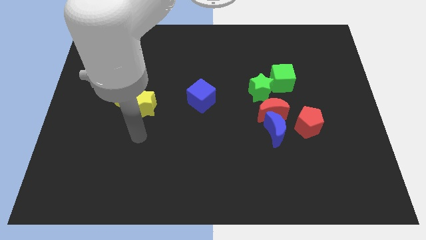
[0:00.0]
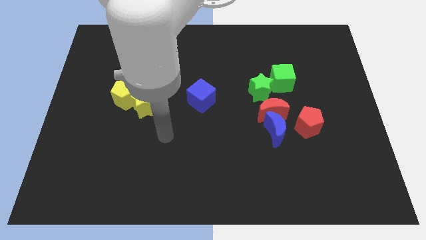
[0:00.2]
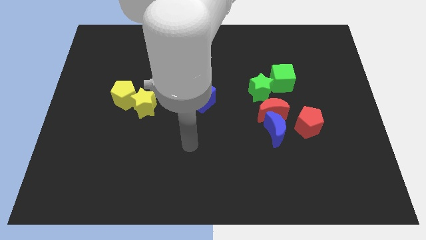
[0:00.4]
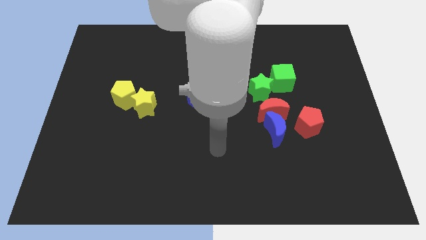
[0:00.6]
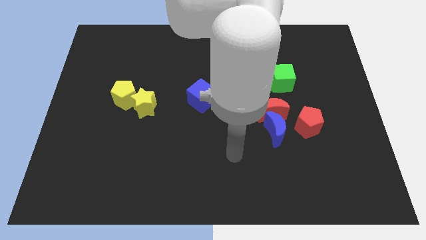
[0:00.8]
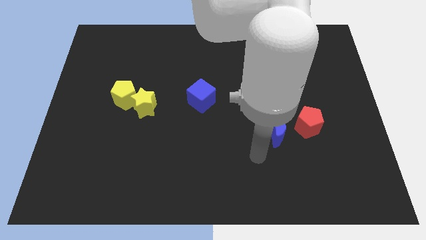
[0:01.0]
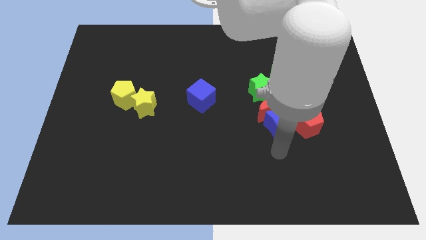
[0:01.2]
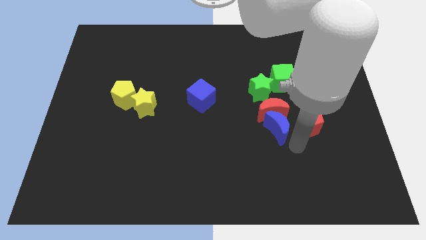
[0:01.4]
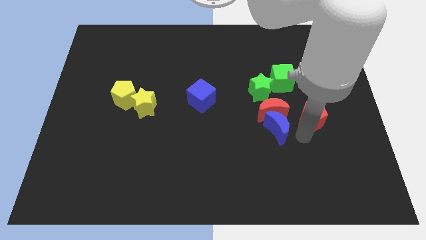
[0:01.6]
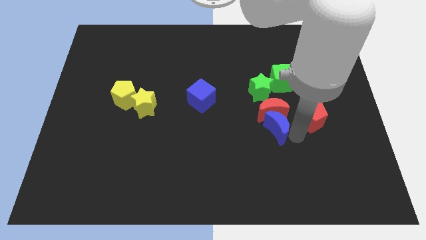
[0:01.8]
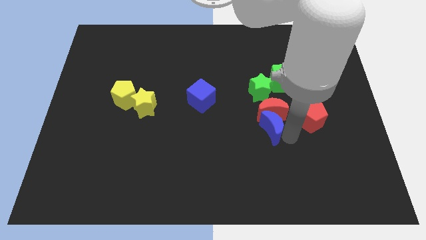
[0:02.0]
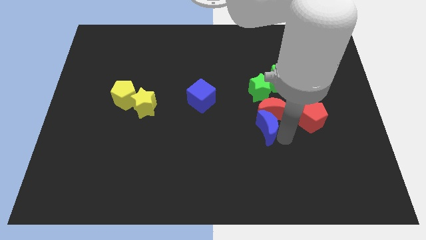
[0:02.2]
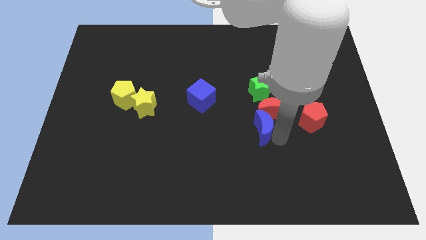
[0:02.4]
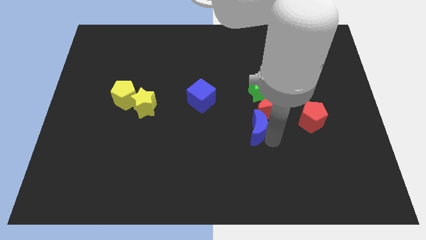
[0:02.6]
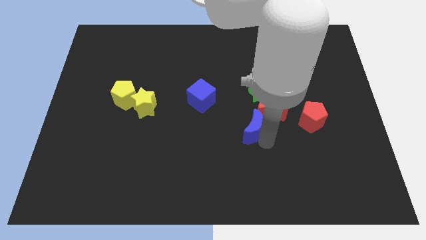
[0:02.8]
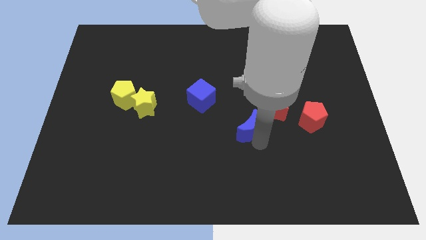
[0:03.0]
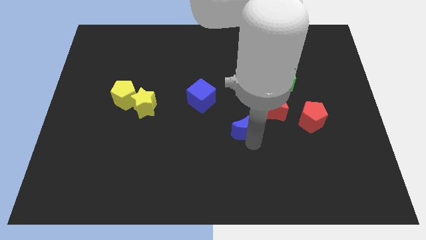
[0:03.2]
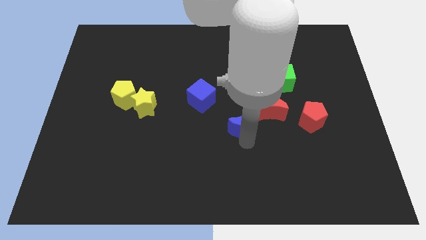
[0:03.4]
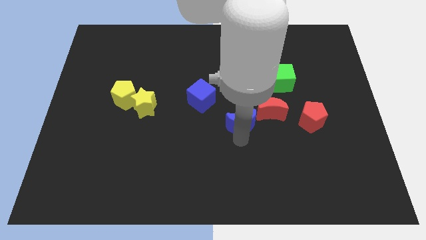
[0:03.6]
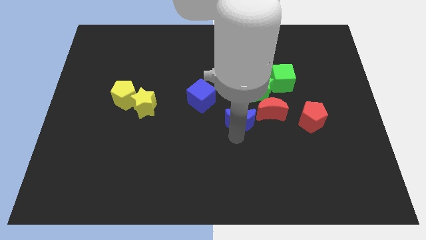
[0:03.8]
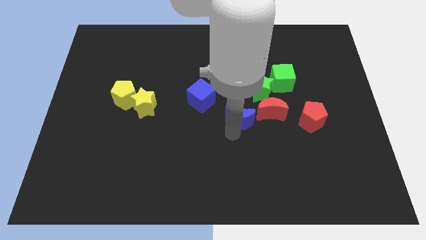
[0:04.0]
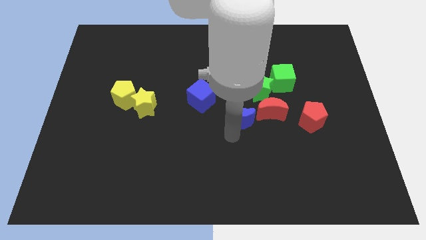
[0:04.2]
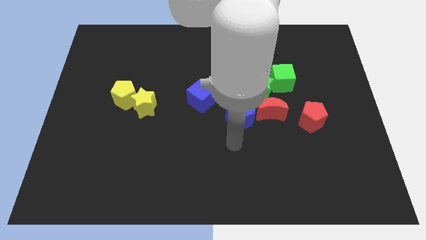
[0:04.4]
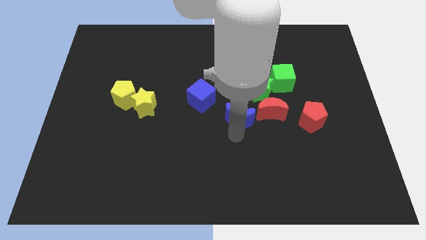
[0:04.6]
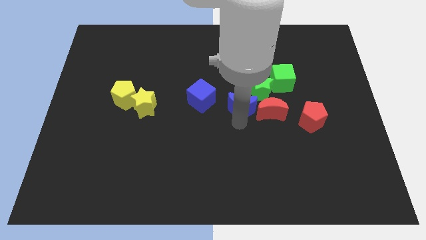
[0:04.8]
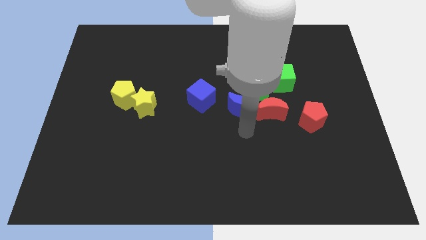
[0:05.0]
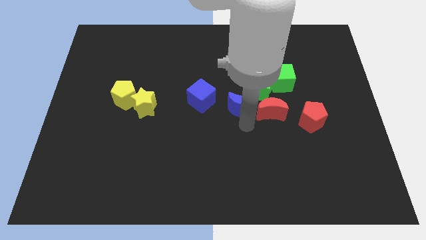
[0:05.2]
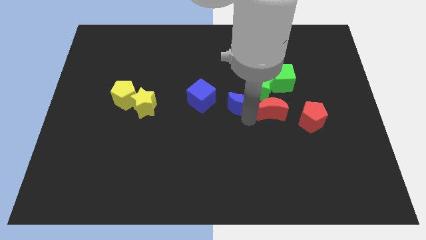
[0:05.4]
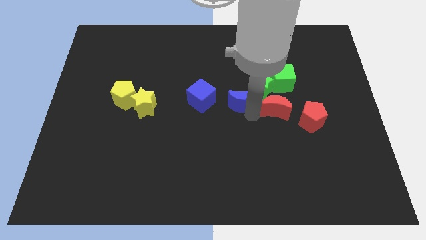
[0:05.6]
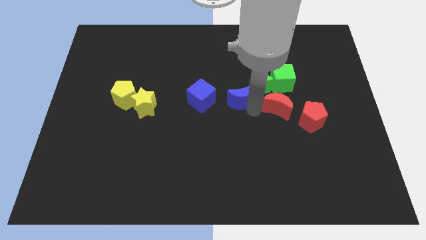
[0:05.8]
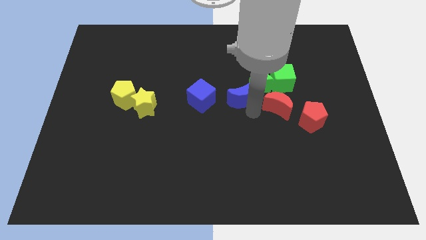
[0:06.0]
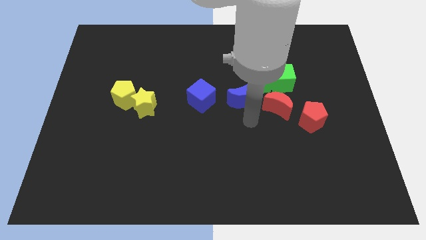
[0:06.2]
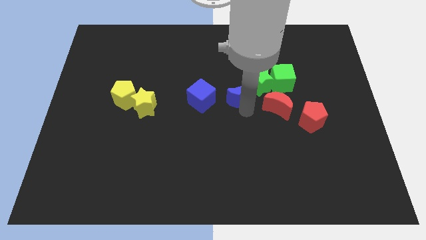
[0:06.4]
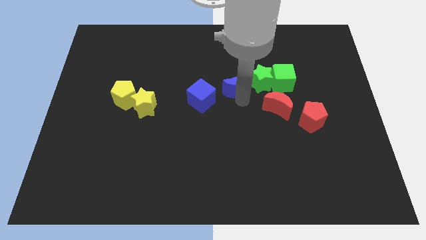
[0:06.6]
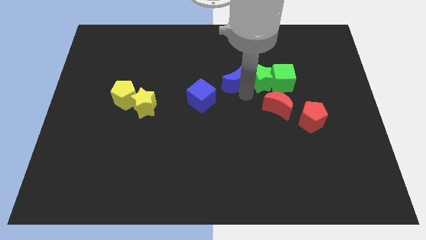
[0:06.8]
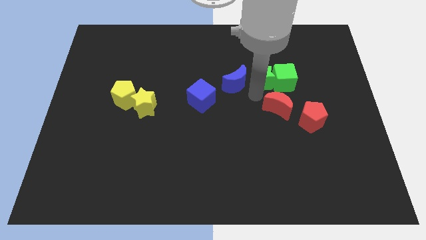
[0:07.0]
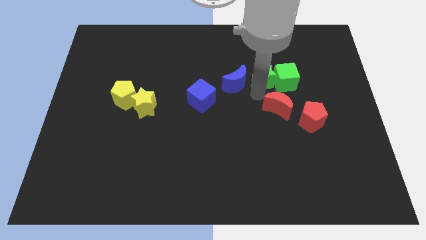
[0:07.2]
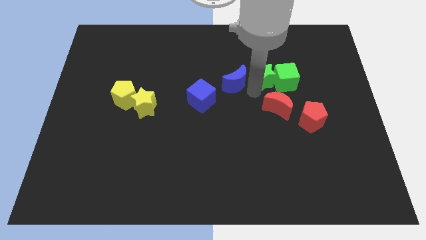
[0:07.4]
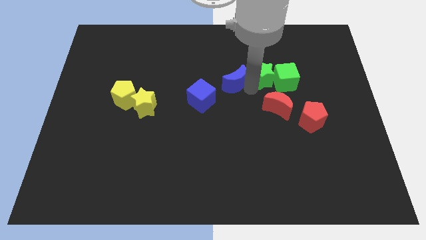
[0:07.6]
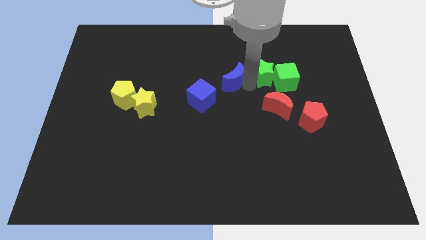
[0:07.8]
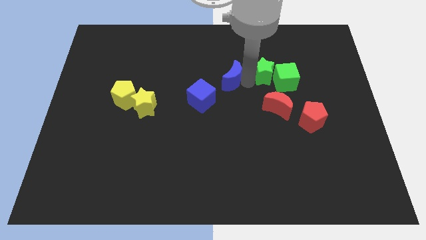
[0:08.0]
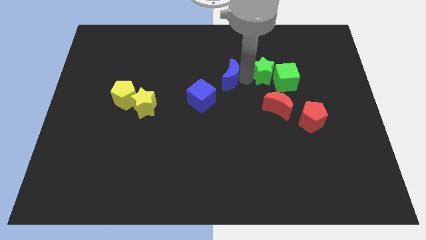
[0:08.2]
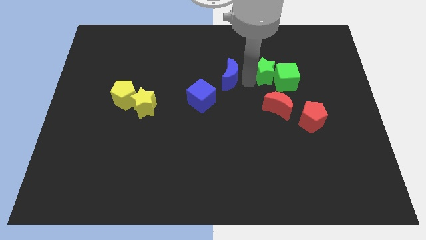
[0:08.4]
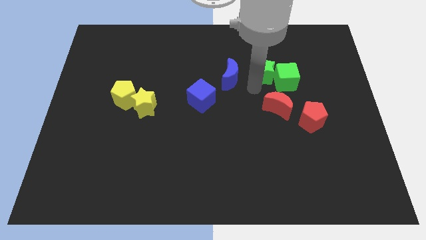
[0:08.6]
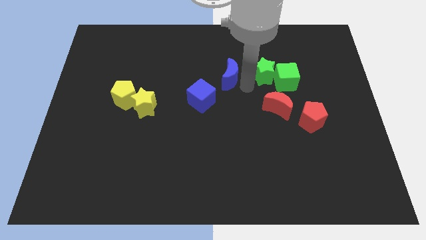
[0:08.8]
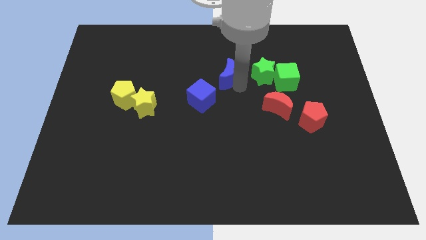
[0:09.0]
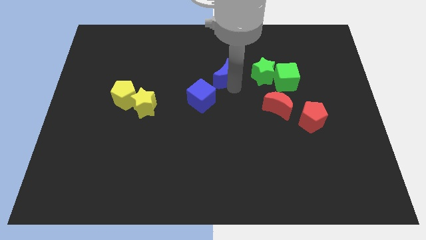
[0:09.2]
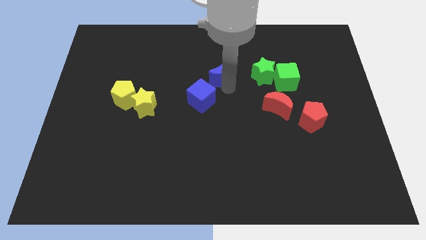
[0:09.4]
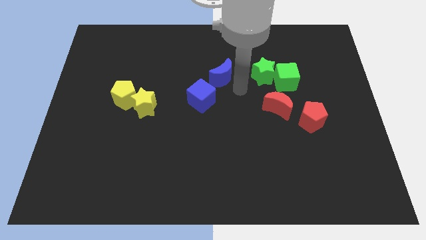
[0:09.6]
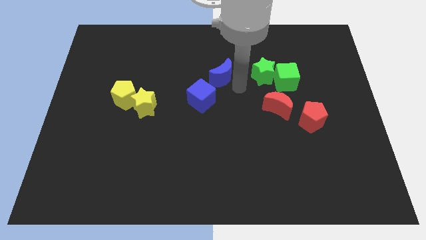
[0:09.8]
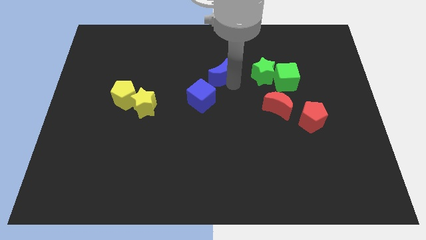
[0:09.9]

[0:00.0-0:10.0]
move the blue moon diagonally upwards and to the left

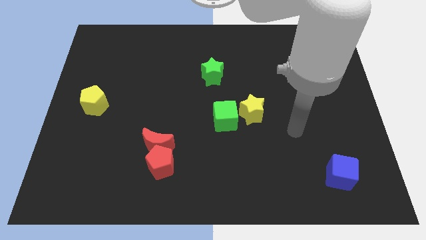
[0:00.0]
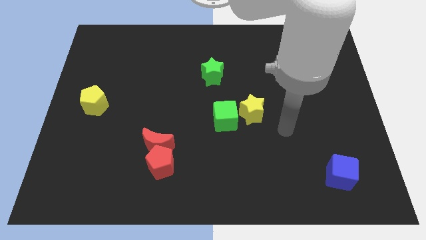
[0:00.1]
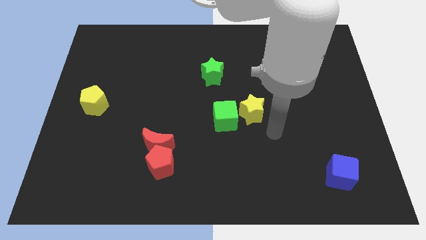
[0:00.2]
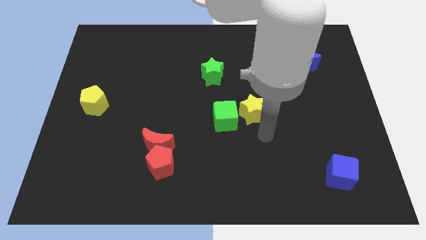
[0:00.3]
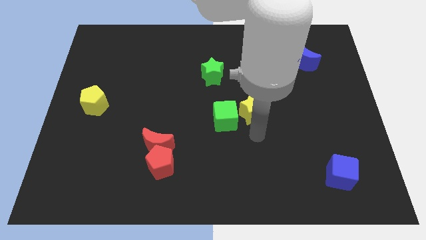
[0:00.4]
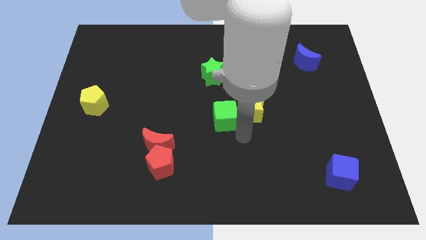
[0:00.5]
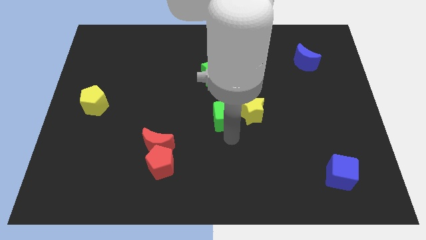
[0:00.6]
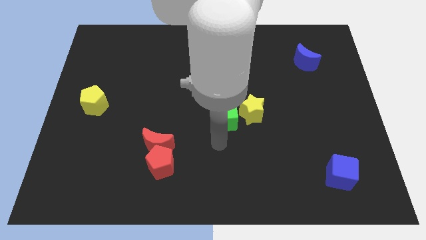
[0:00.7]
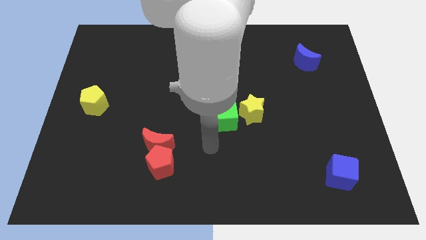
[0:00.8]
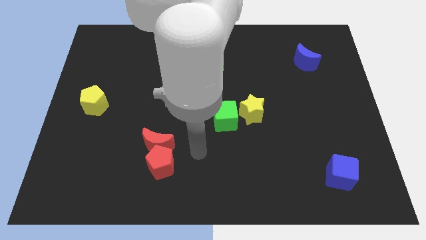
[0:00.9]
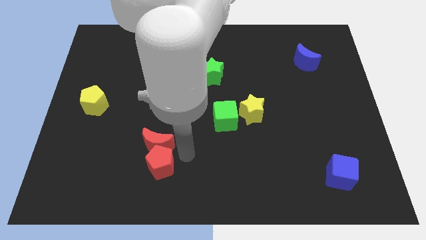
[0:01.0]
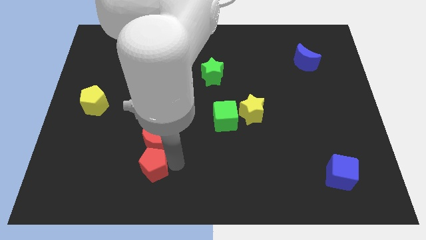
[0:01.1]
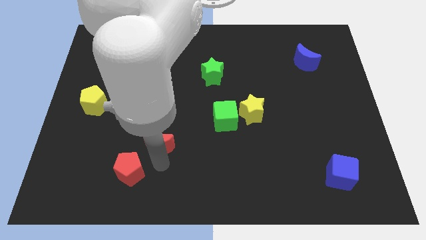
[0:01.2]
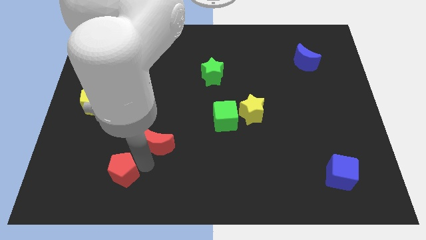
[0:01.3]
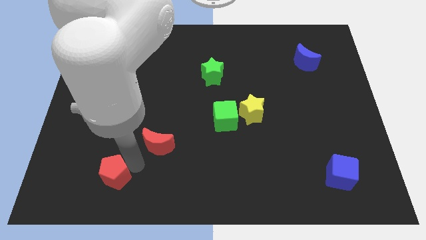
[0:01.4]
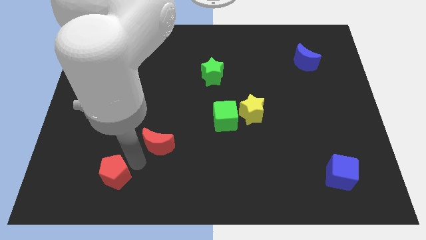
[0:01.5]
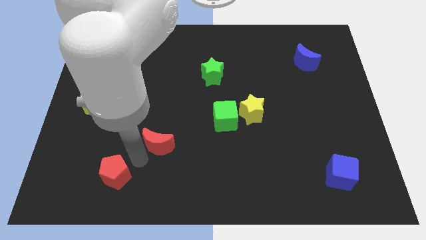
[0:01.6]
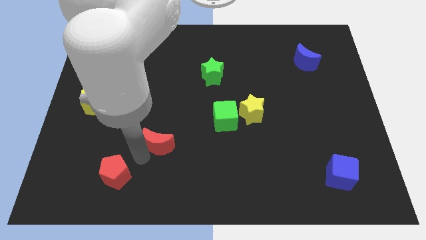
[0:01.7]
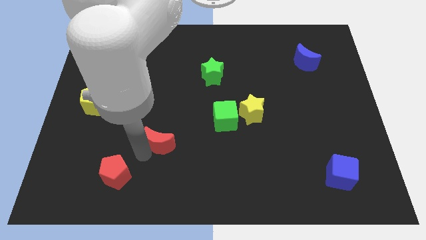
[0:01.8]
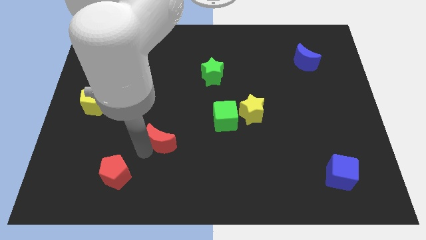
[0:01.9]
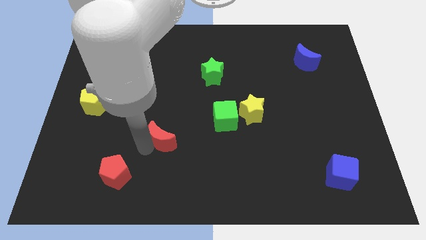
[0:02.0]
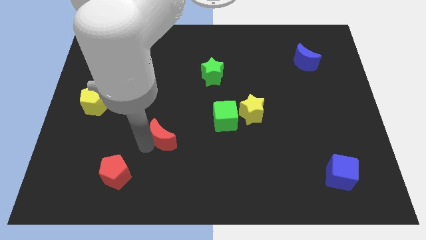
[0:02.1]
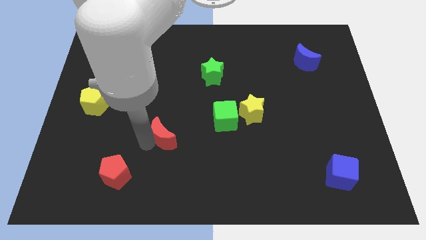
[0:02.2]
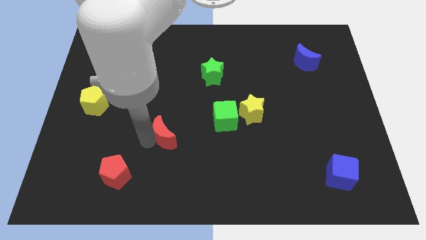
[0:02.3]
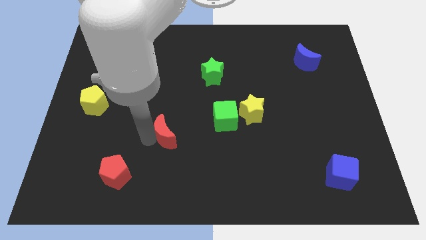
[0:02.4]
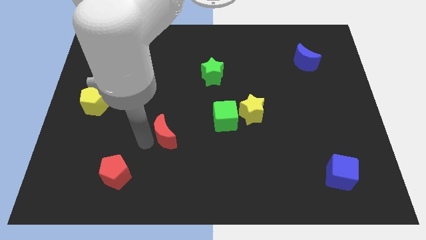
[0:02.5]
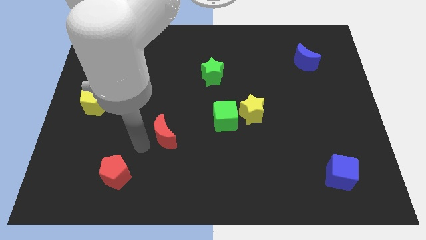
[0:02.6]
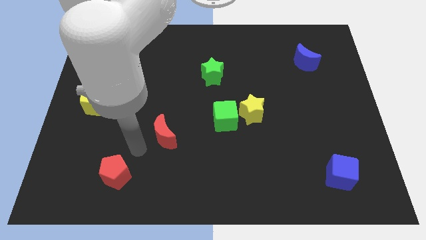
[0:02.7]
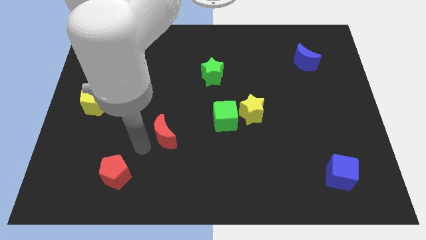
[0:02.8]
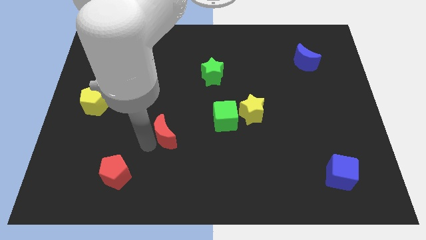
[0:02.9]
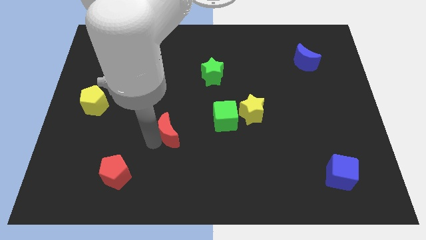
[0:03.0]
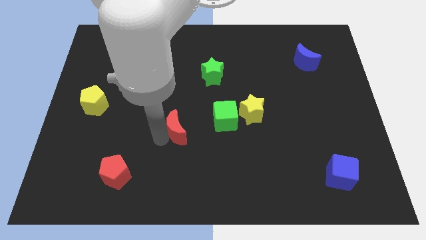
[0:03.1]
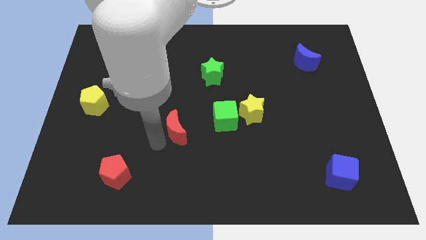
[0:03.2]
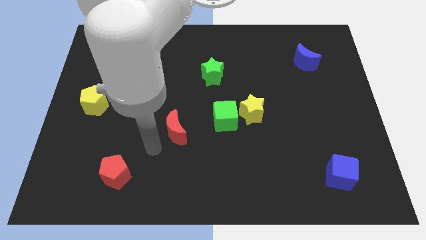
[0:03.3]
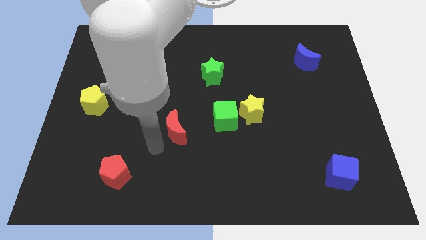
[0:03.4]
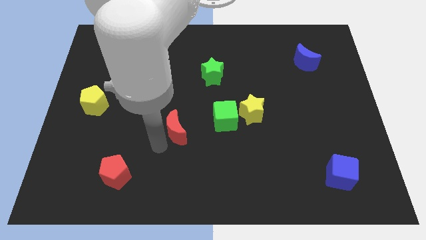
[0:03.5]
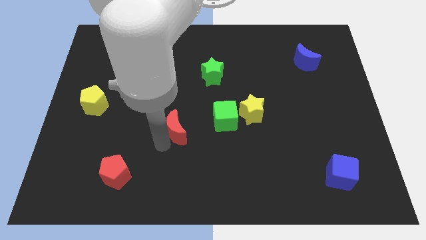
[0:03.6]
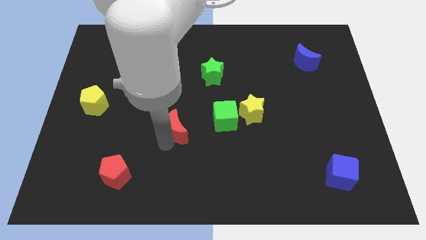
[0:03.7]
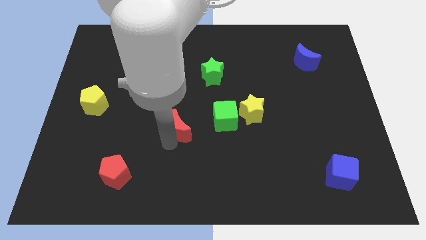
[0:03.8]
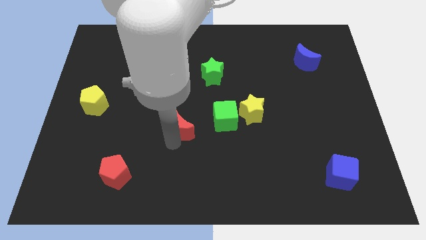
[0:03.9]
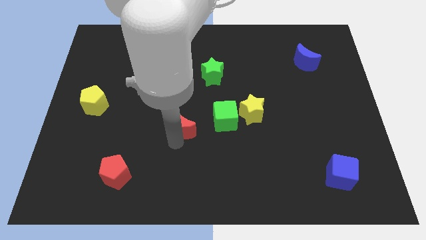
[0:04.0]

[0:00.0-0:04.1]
move the red moon upwards and then right a bit
